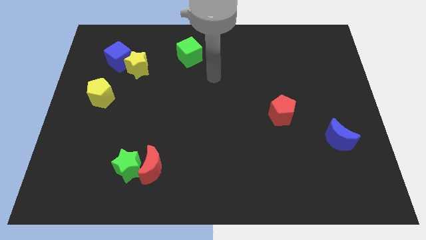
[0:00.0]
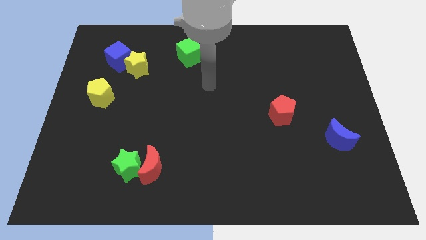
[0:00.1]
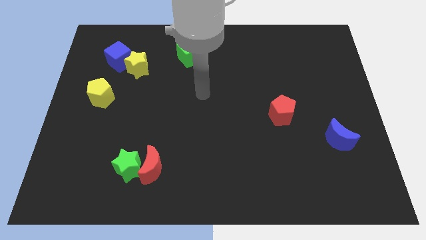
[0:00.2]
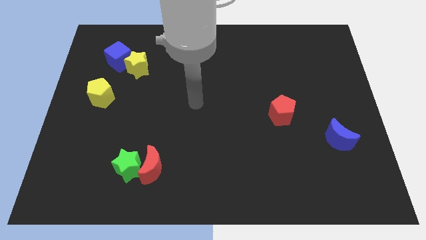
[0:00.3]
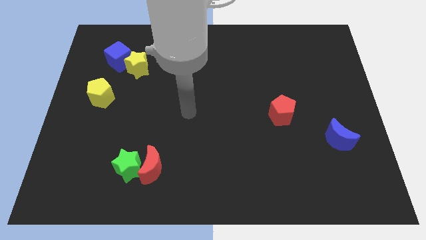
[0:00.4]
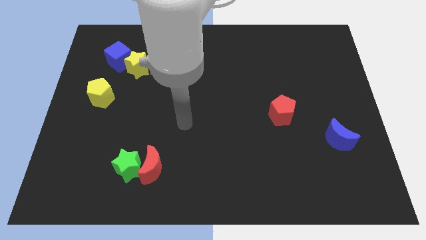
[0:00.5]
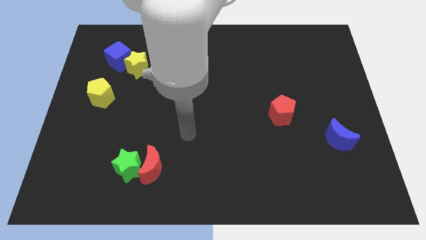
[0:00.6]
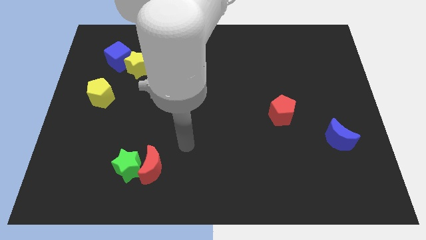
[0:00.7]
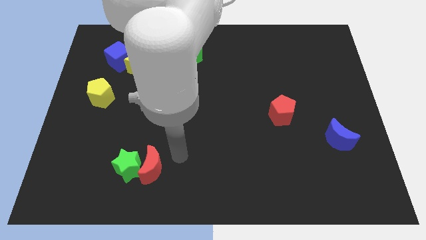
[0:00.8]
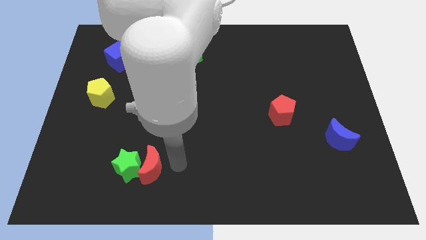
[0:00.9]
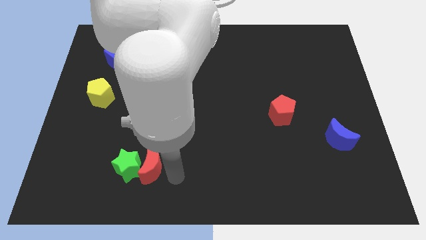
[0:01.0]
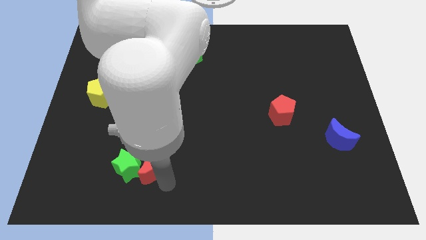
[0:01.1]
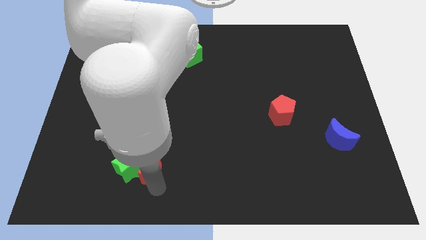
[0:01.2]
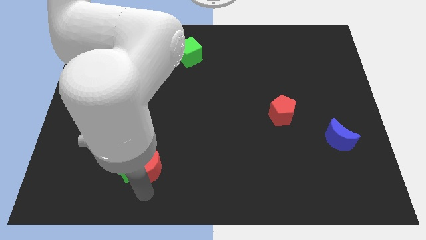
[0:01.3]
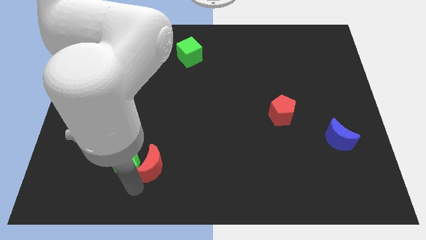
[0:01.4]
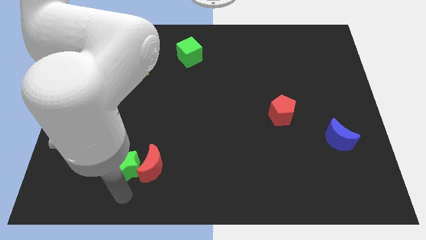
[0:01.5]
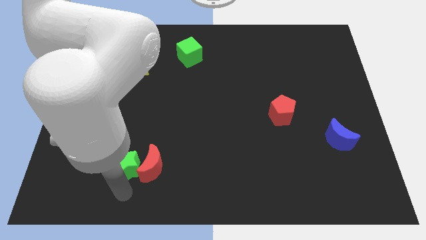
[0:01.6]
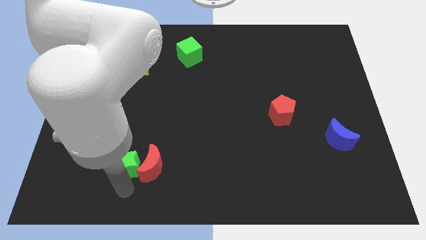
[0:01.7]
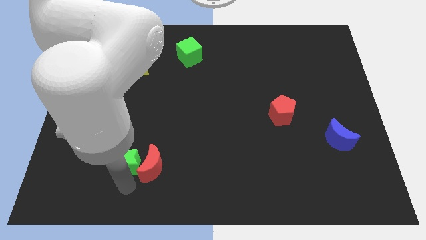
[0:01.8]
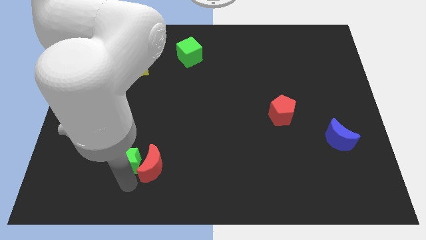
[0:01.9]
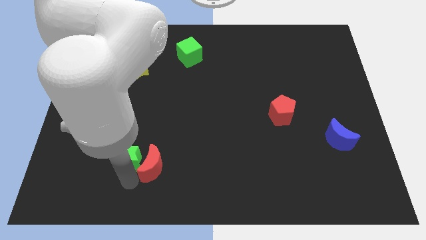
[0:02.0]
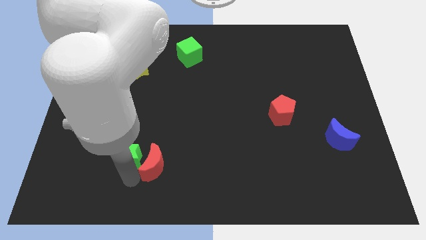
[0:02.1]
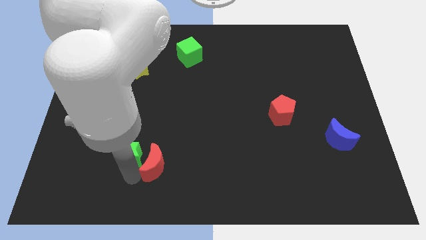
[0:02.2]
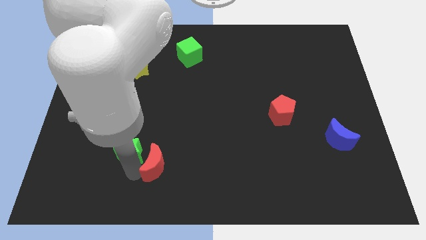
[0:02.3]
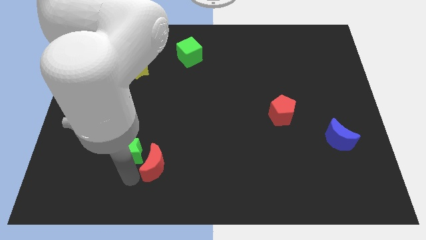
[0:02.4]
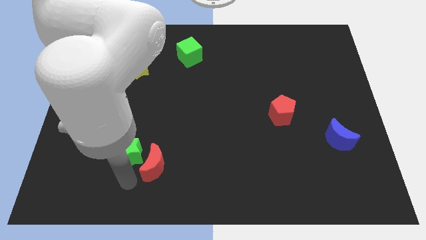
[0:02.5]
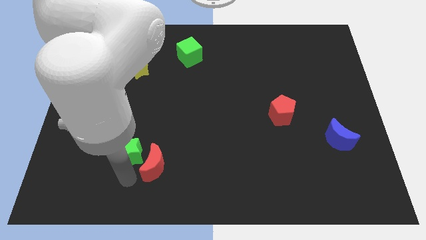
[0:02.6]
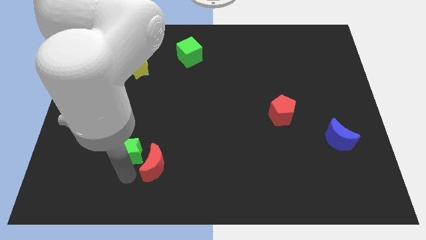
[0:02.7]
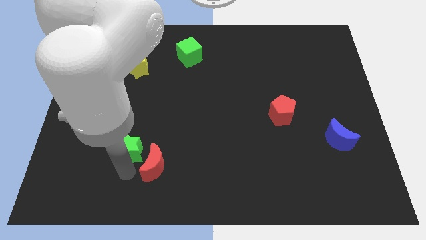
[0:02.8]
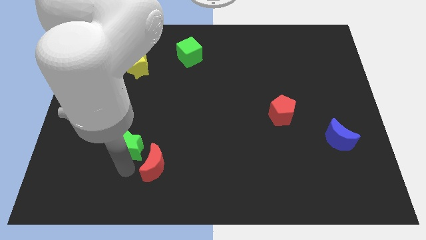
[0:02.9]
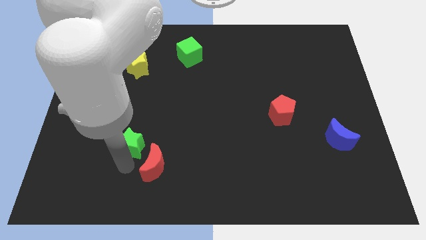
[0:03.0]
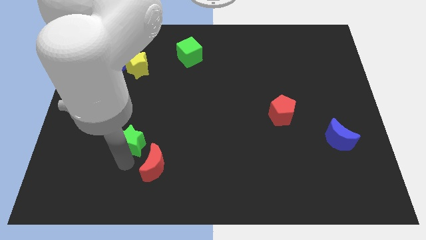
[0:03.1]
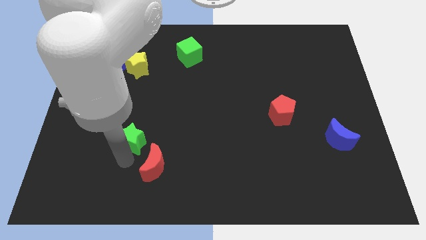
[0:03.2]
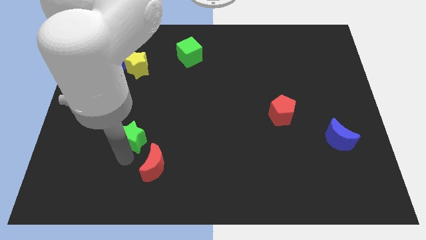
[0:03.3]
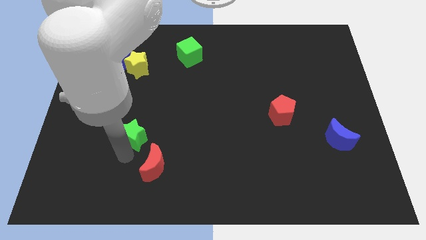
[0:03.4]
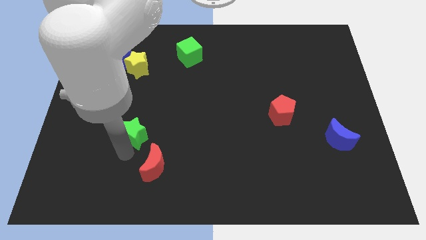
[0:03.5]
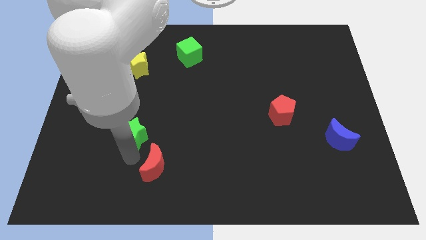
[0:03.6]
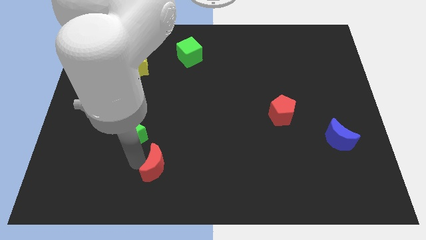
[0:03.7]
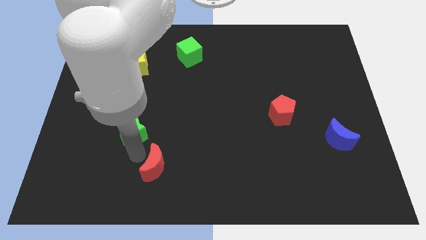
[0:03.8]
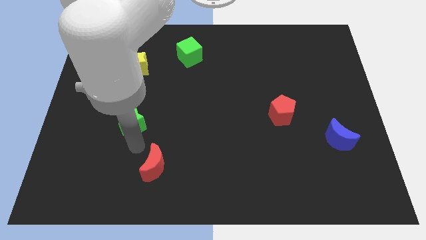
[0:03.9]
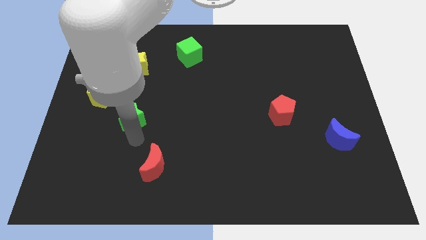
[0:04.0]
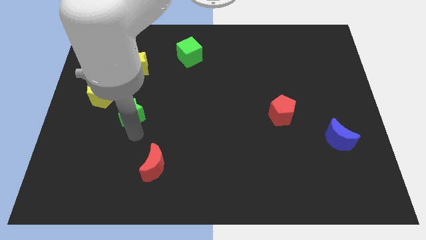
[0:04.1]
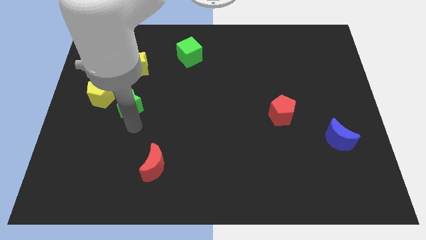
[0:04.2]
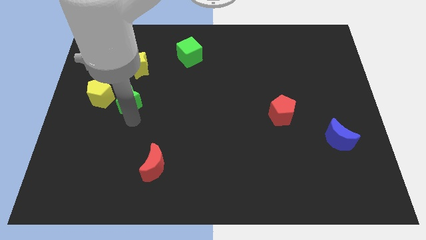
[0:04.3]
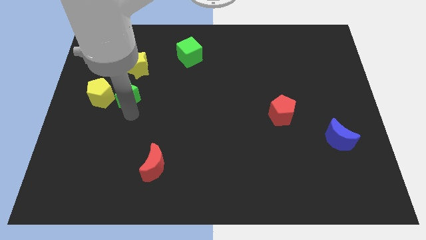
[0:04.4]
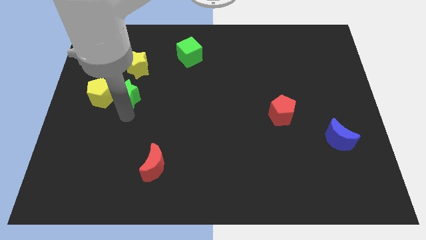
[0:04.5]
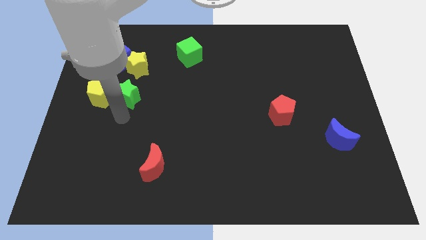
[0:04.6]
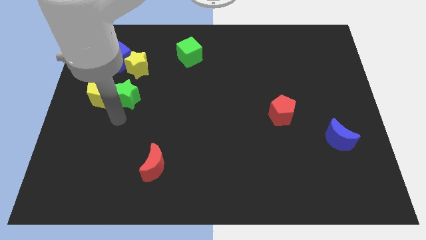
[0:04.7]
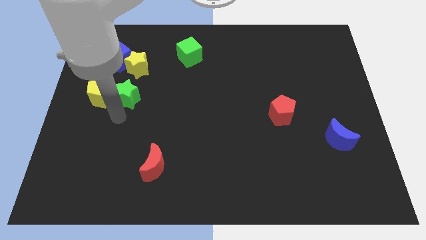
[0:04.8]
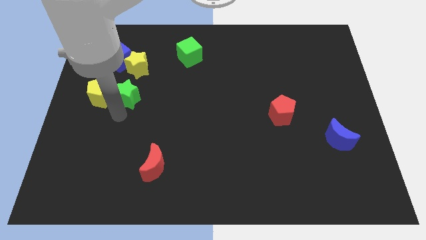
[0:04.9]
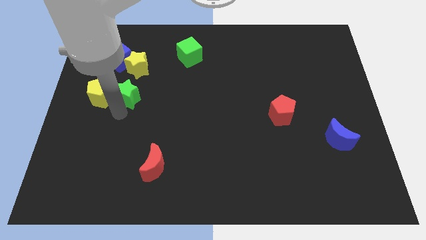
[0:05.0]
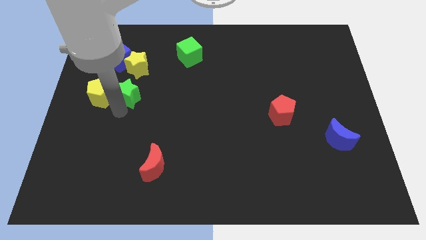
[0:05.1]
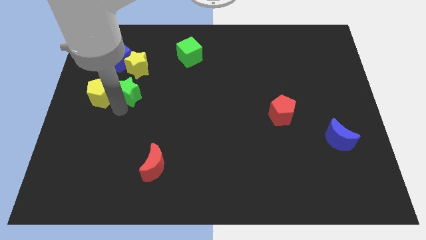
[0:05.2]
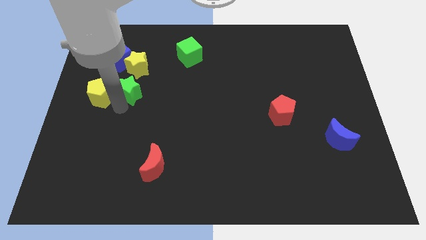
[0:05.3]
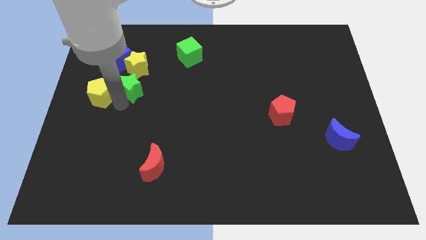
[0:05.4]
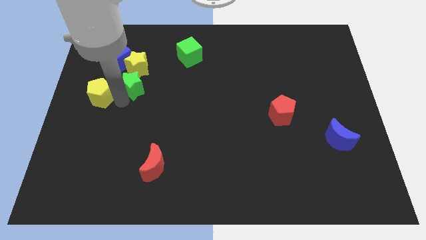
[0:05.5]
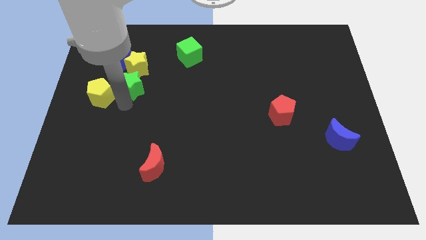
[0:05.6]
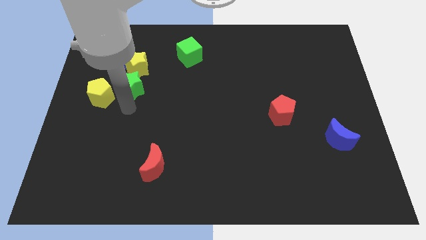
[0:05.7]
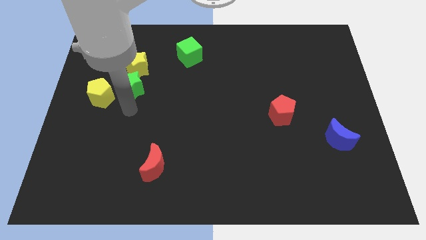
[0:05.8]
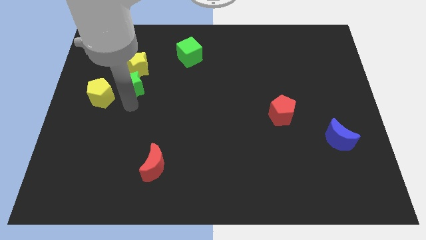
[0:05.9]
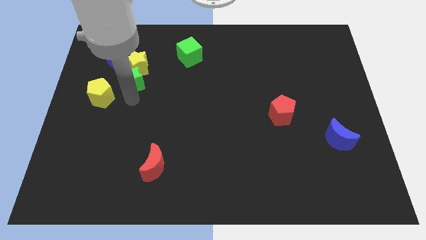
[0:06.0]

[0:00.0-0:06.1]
push the green star next to the yellow star

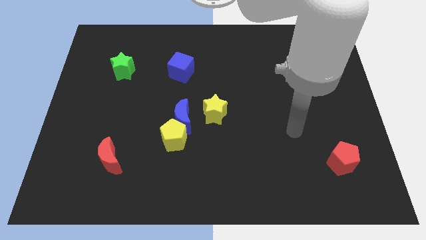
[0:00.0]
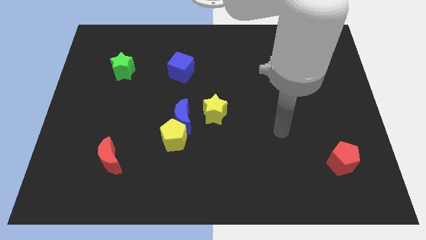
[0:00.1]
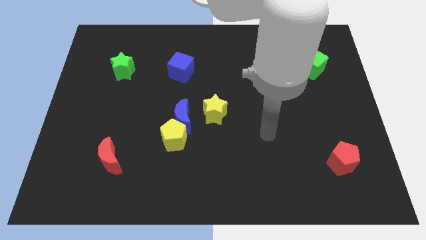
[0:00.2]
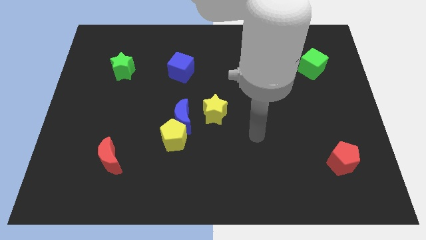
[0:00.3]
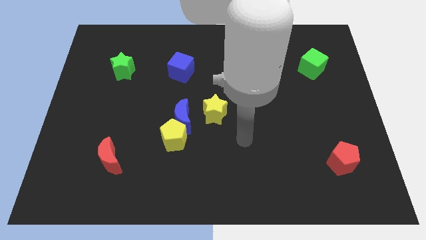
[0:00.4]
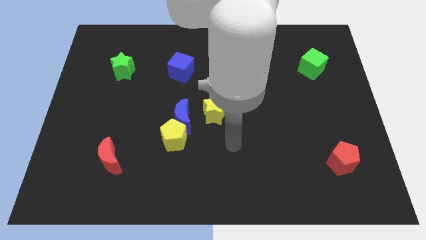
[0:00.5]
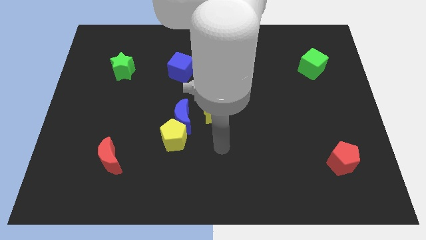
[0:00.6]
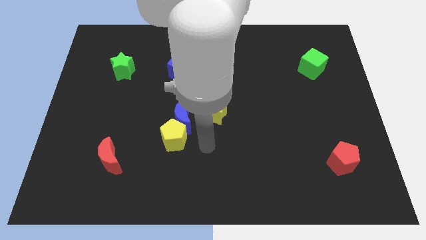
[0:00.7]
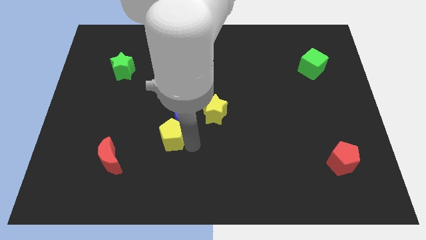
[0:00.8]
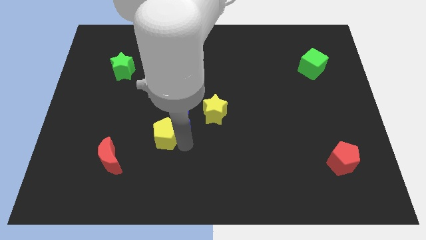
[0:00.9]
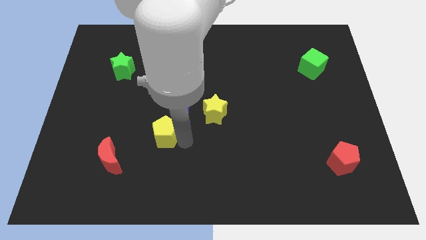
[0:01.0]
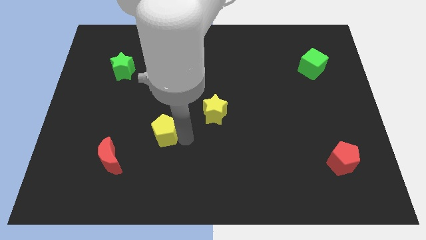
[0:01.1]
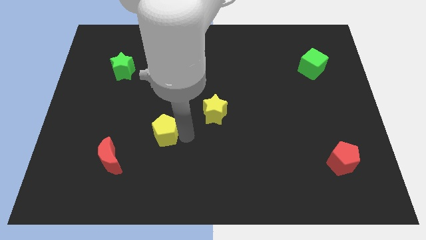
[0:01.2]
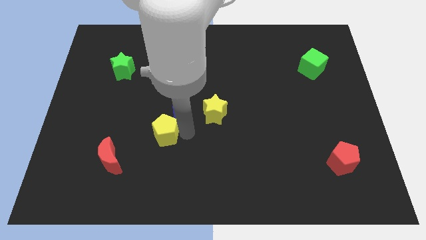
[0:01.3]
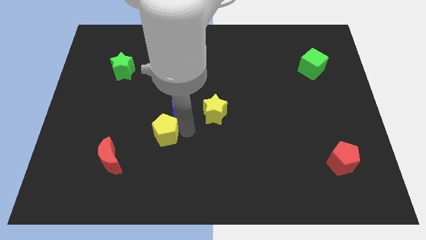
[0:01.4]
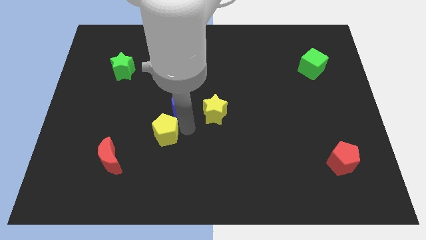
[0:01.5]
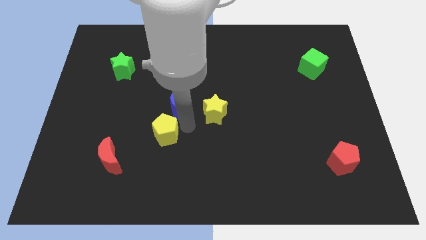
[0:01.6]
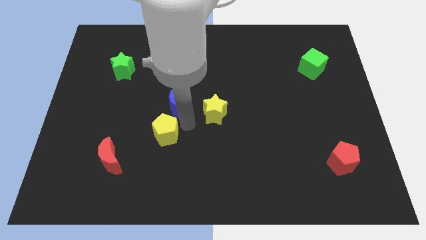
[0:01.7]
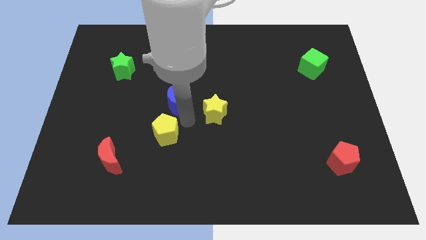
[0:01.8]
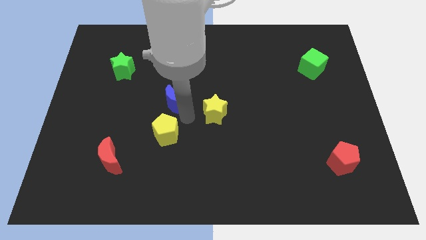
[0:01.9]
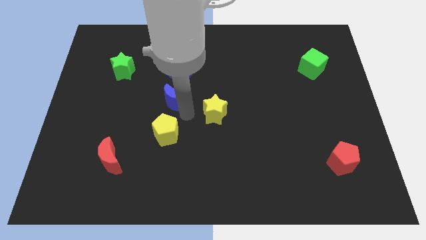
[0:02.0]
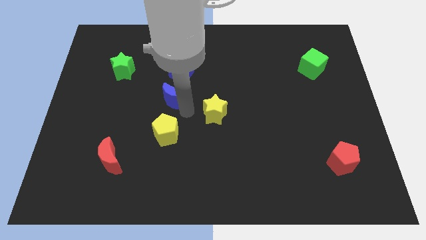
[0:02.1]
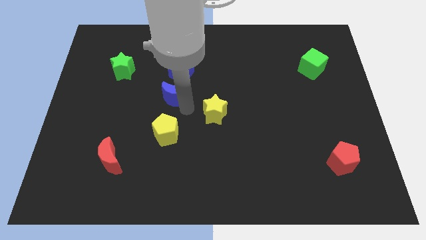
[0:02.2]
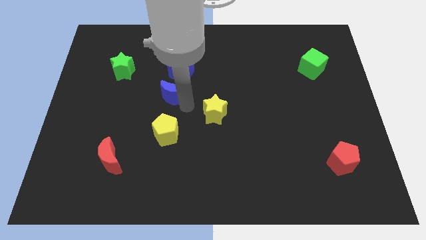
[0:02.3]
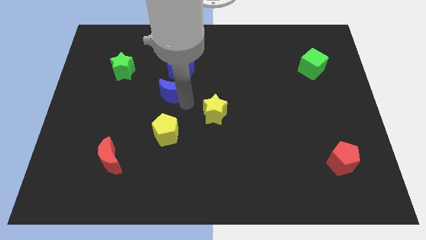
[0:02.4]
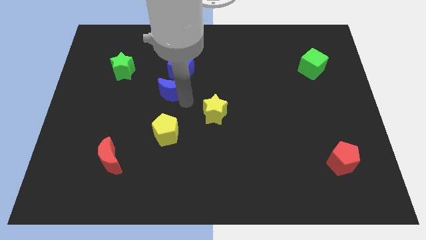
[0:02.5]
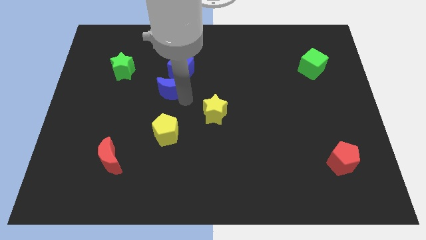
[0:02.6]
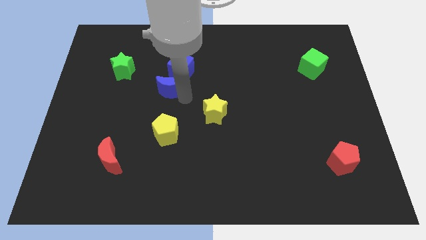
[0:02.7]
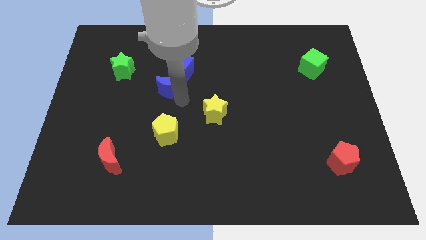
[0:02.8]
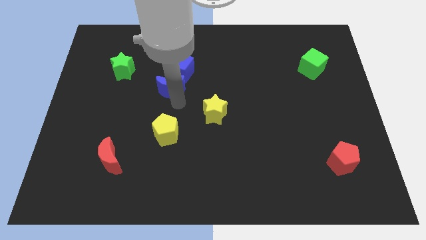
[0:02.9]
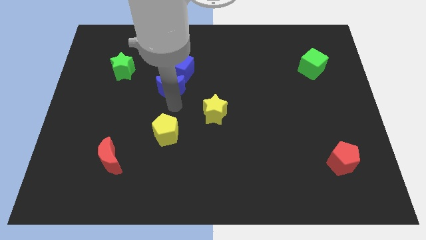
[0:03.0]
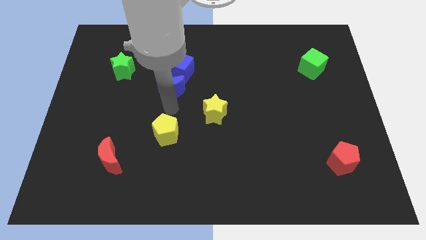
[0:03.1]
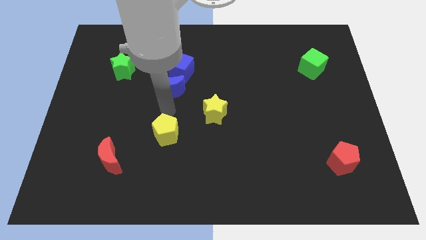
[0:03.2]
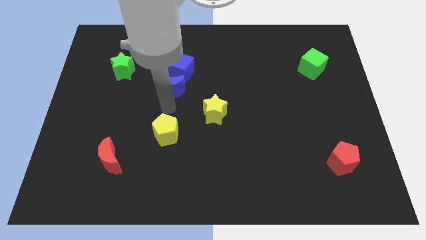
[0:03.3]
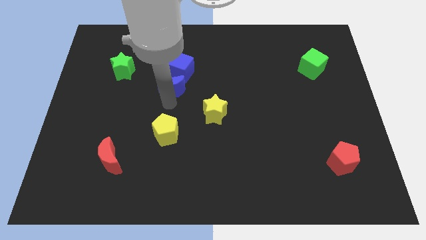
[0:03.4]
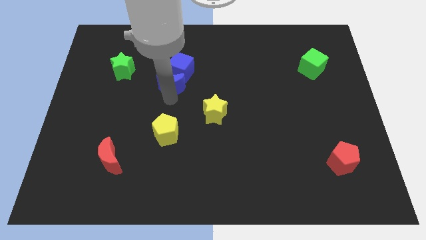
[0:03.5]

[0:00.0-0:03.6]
move the blue moon next to the blue cube
